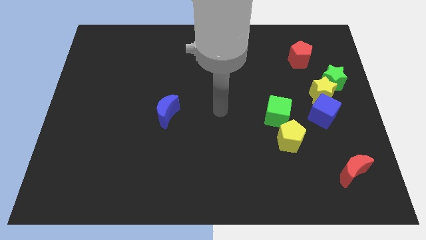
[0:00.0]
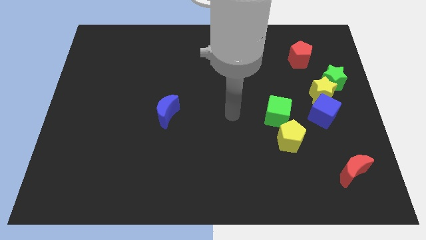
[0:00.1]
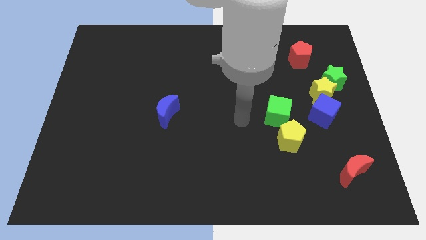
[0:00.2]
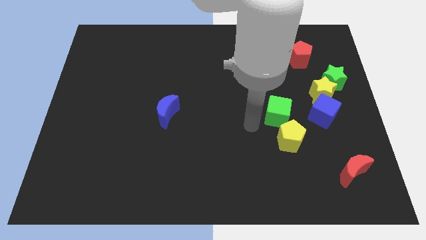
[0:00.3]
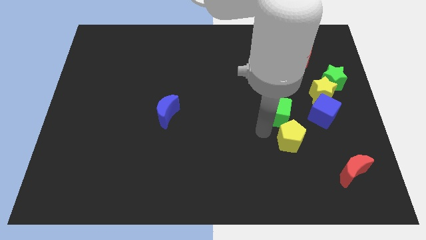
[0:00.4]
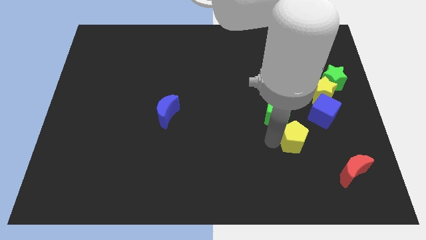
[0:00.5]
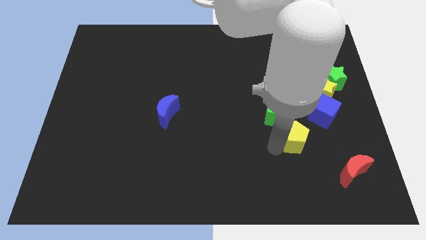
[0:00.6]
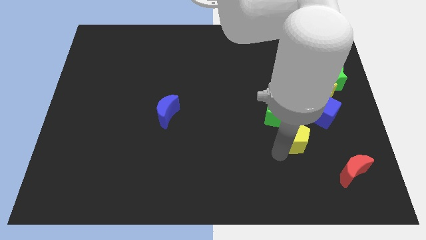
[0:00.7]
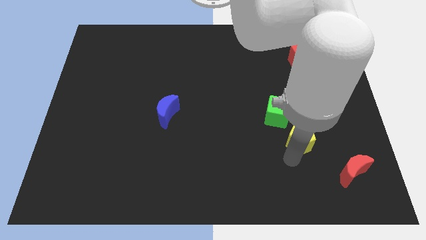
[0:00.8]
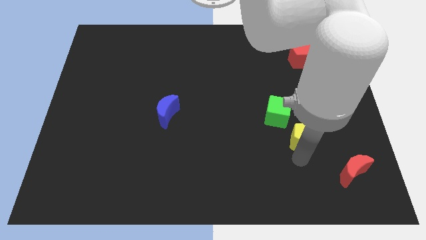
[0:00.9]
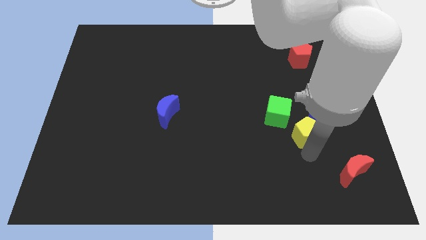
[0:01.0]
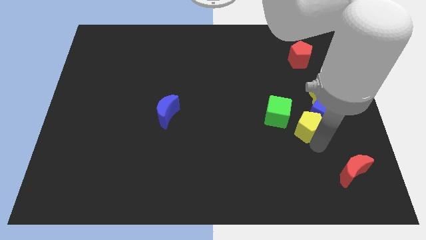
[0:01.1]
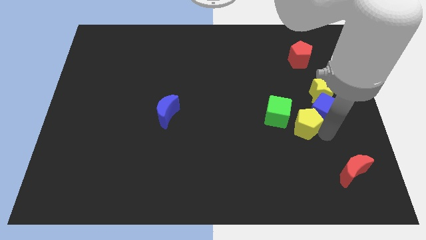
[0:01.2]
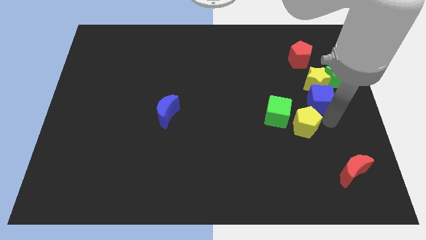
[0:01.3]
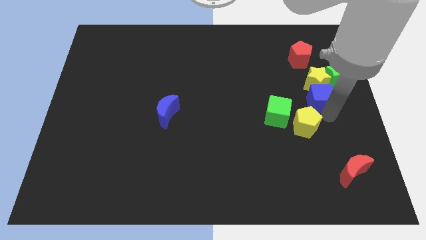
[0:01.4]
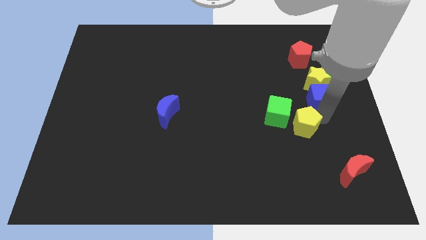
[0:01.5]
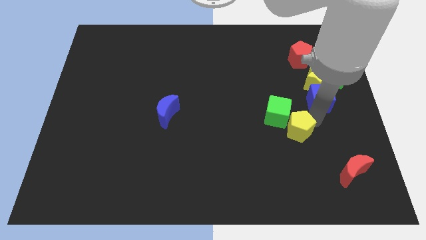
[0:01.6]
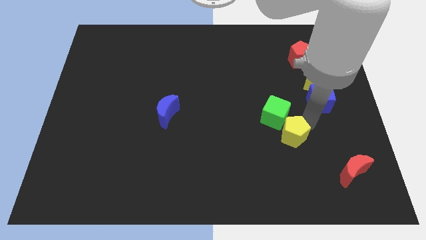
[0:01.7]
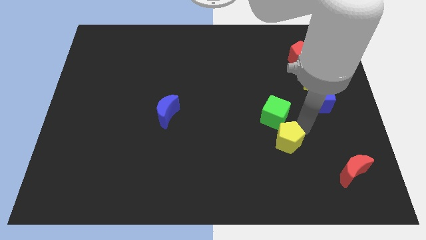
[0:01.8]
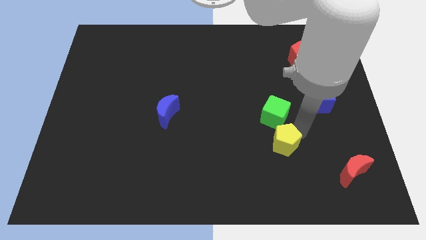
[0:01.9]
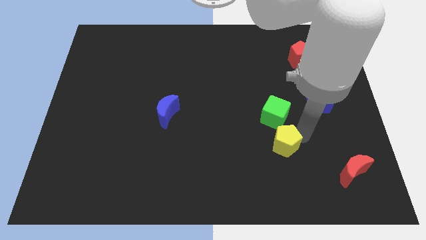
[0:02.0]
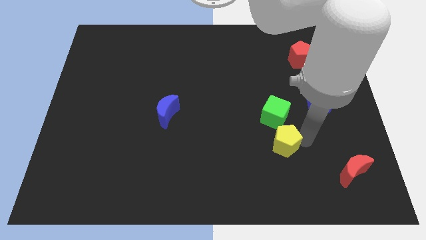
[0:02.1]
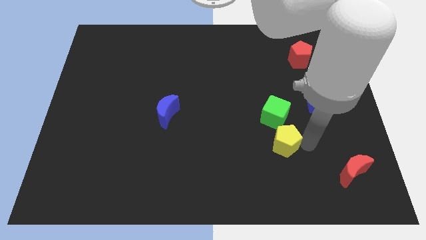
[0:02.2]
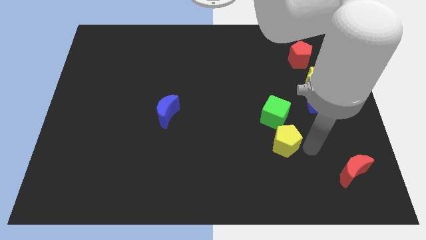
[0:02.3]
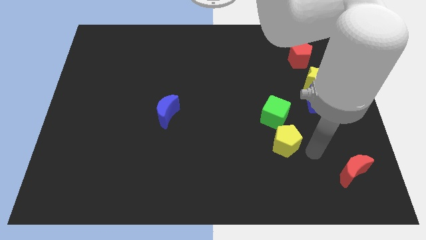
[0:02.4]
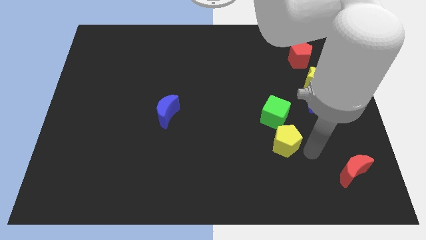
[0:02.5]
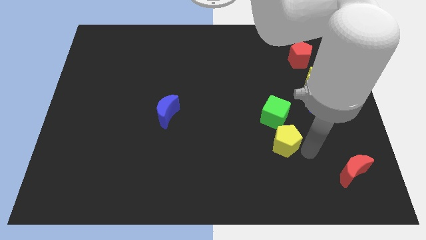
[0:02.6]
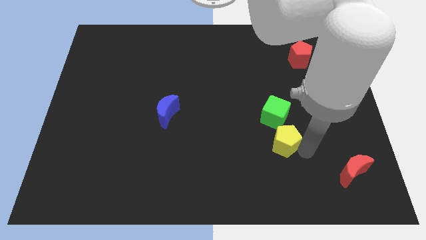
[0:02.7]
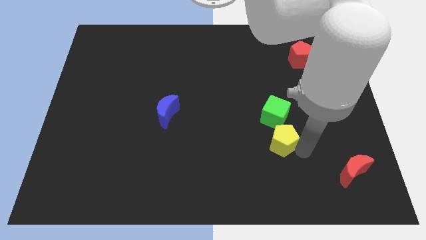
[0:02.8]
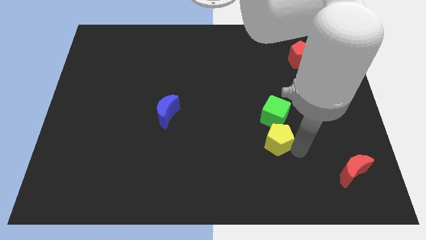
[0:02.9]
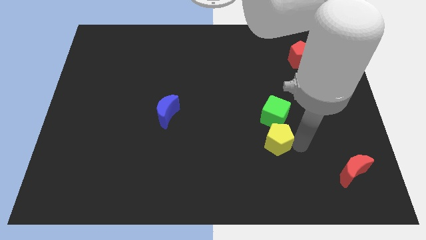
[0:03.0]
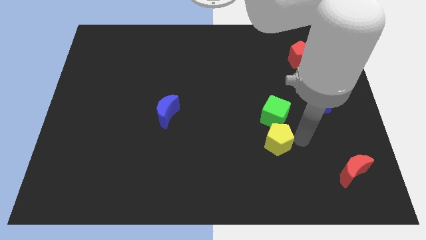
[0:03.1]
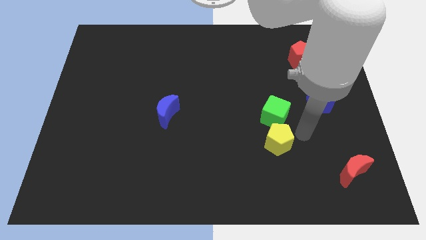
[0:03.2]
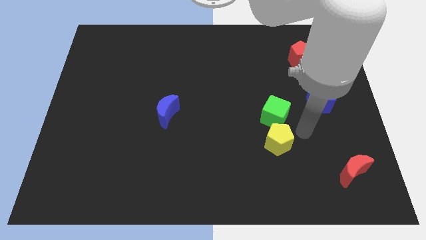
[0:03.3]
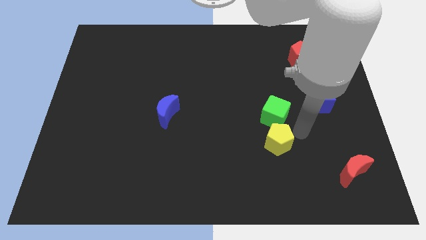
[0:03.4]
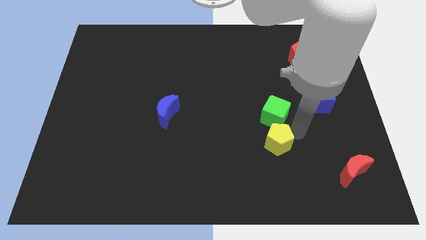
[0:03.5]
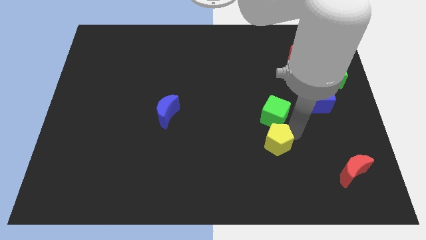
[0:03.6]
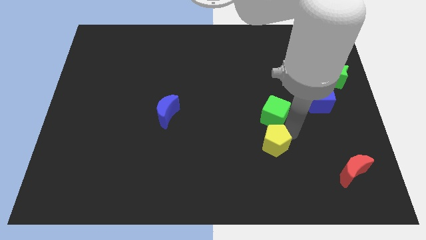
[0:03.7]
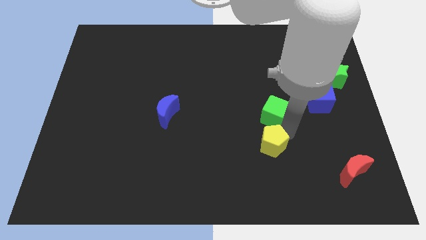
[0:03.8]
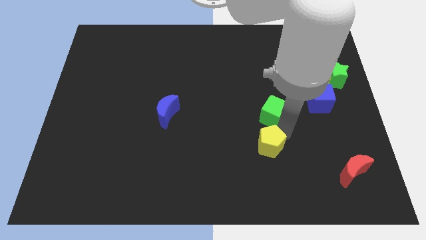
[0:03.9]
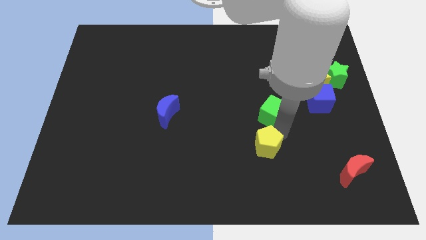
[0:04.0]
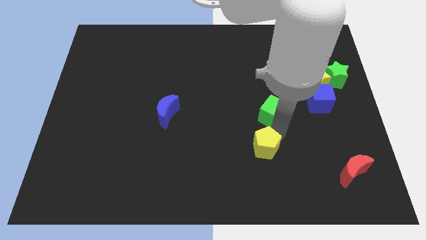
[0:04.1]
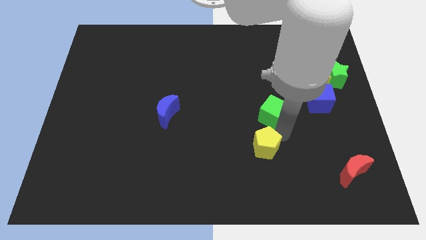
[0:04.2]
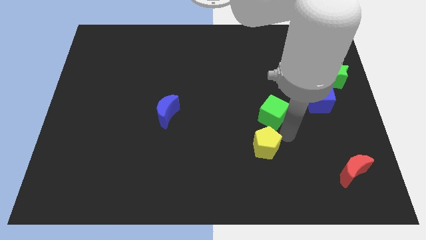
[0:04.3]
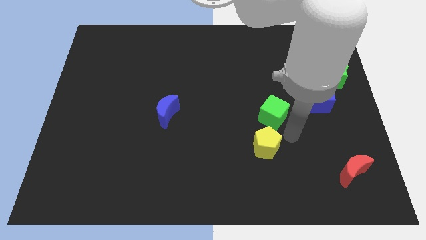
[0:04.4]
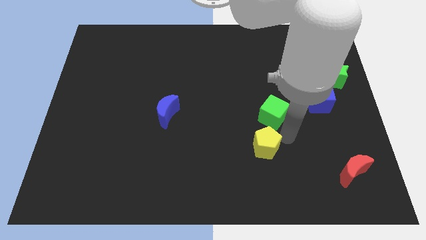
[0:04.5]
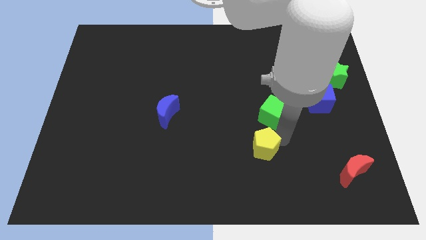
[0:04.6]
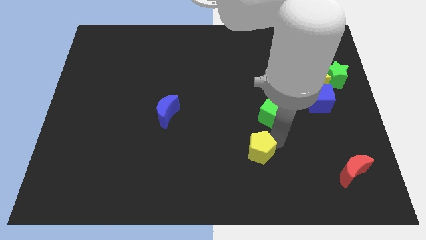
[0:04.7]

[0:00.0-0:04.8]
slide the yellow pentagon slightly to the left

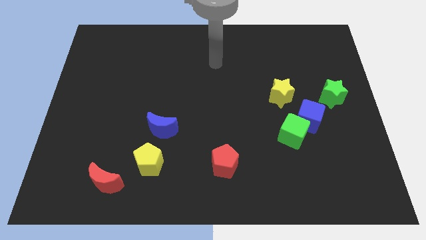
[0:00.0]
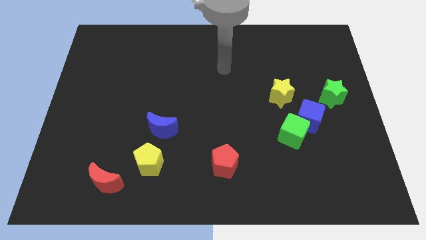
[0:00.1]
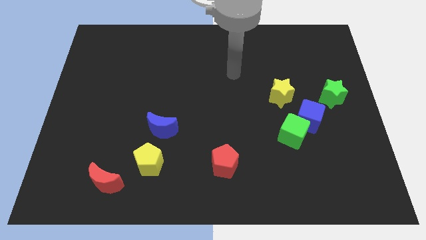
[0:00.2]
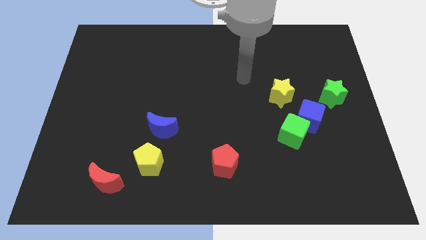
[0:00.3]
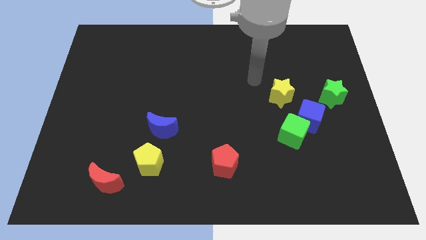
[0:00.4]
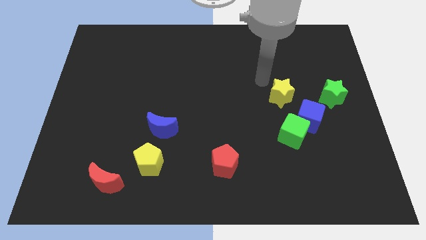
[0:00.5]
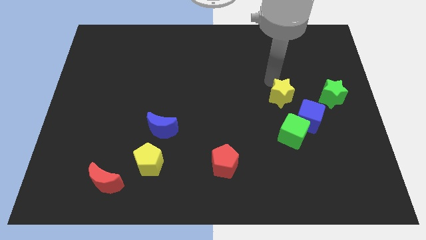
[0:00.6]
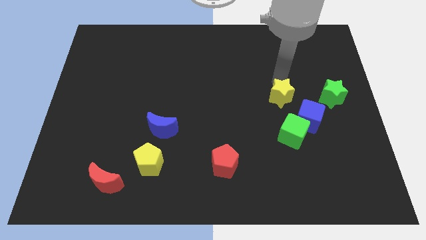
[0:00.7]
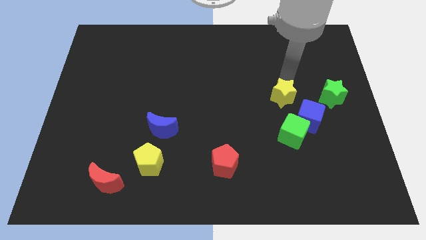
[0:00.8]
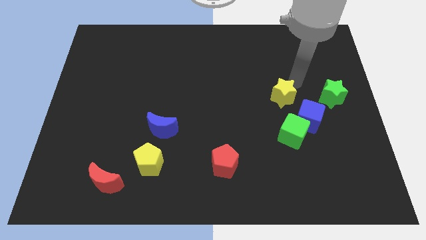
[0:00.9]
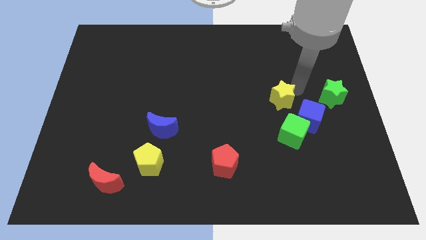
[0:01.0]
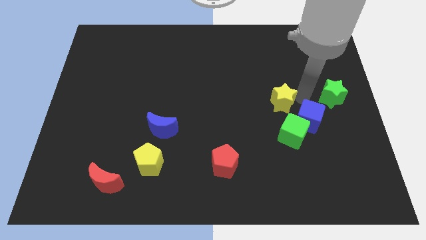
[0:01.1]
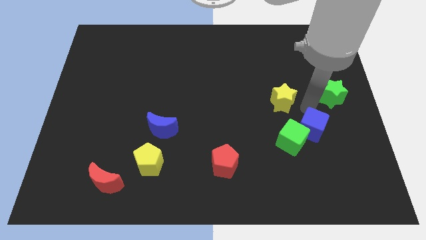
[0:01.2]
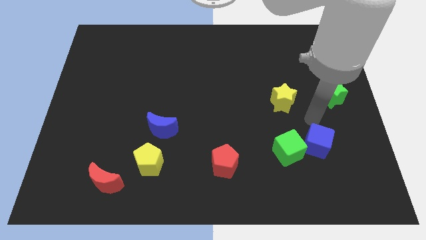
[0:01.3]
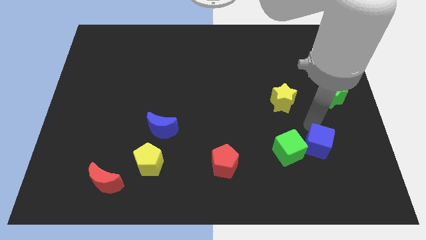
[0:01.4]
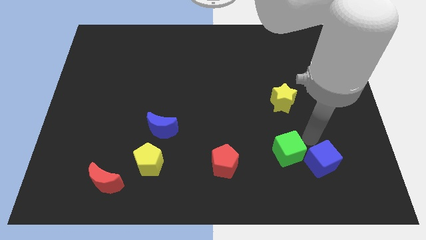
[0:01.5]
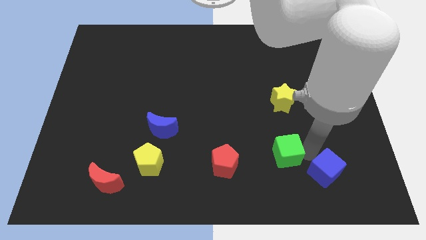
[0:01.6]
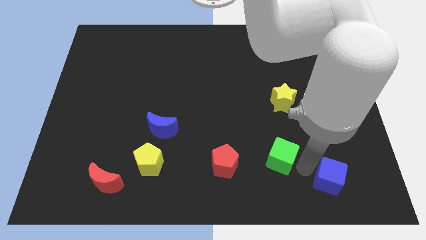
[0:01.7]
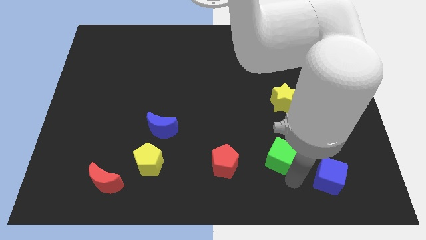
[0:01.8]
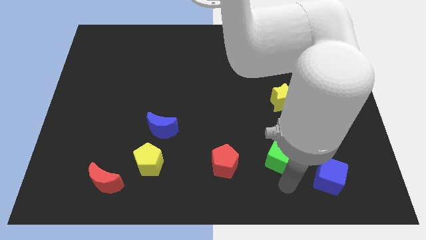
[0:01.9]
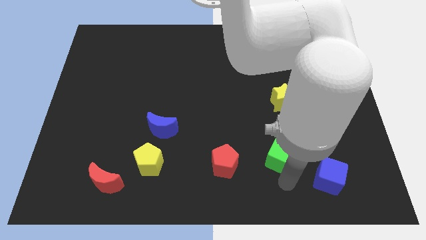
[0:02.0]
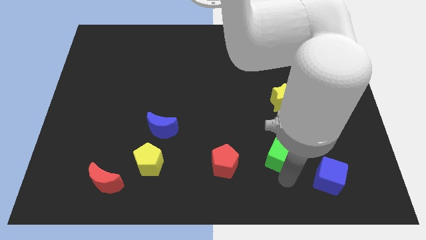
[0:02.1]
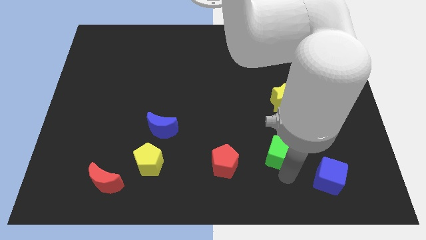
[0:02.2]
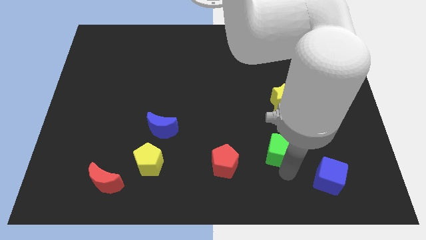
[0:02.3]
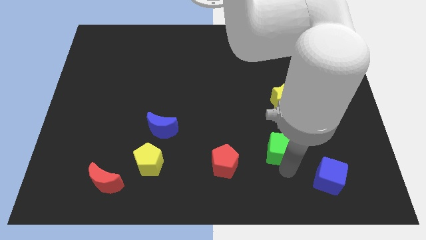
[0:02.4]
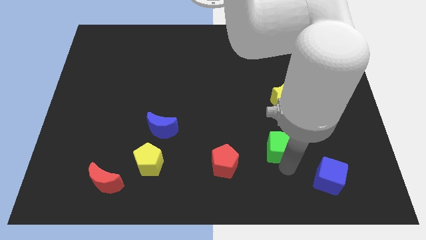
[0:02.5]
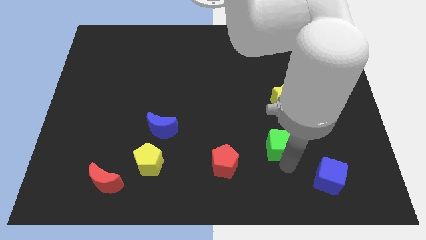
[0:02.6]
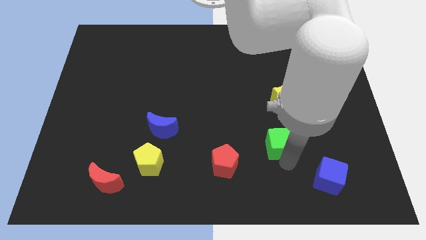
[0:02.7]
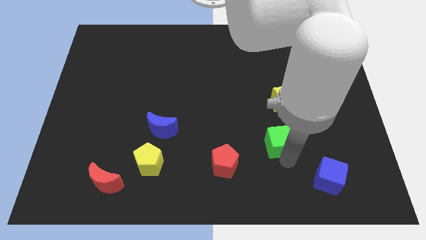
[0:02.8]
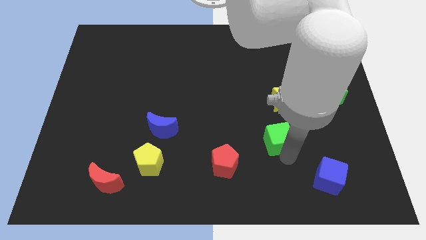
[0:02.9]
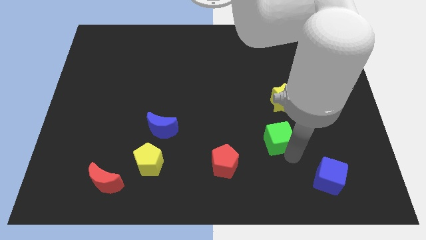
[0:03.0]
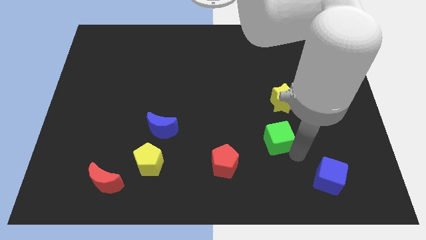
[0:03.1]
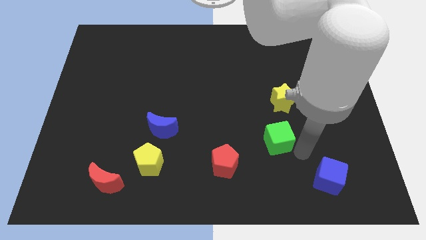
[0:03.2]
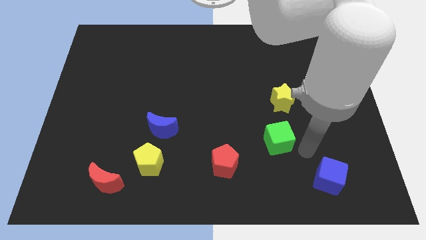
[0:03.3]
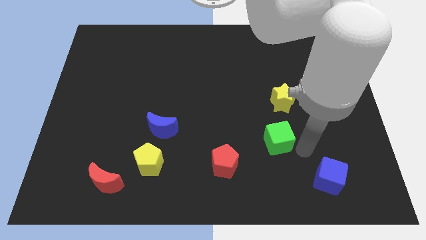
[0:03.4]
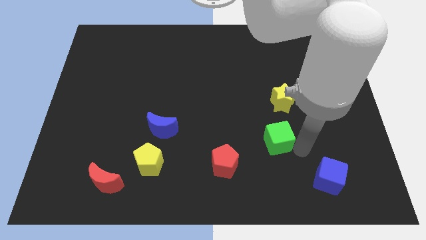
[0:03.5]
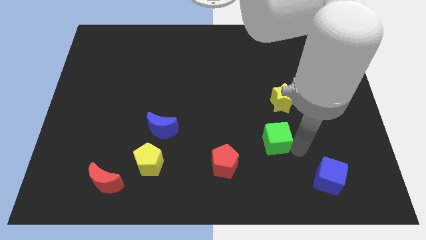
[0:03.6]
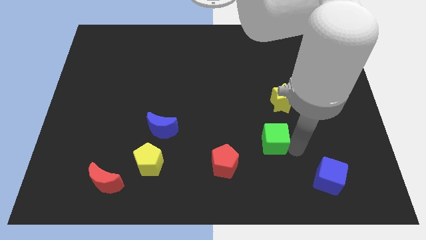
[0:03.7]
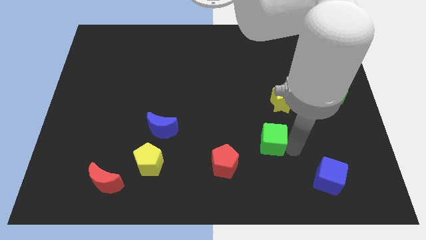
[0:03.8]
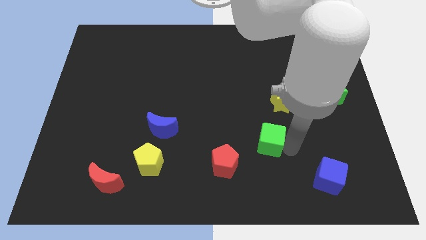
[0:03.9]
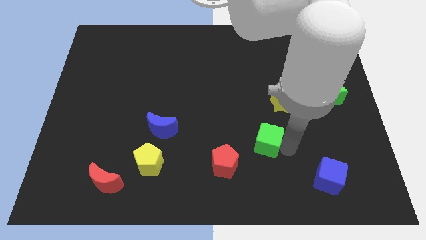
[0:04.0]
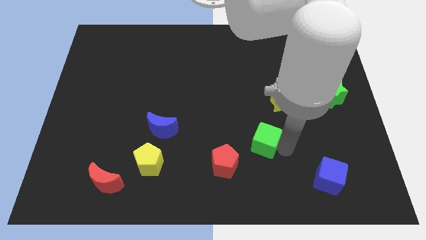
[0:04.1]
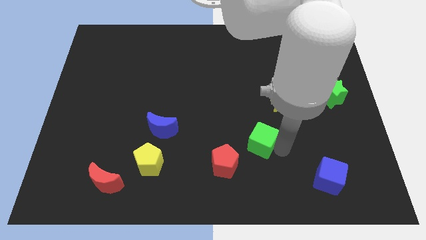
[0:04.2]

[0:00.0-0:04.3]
slide the green cube left somewhat
